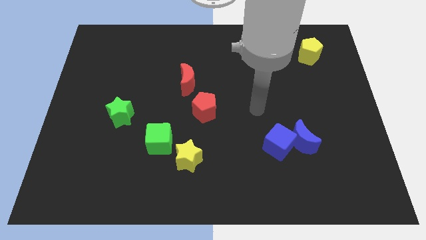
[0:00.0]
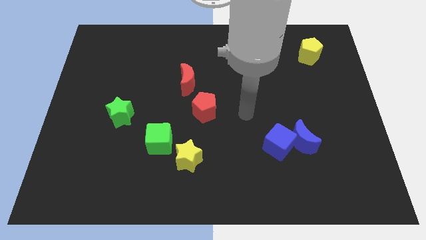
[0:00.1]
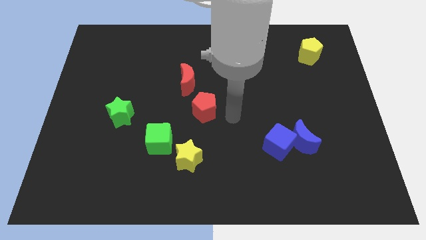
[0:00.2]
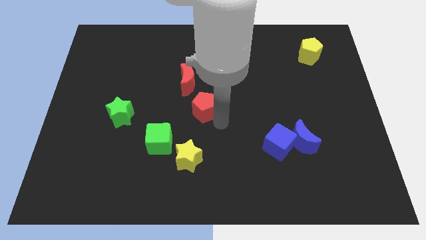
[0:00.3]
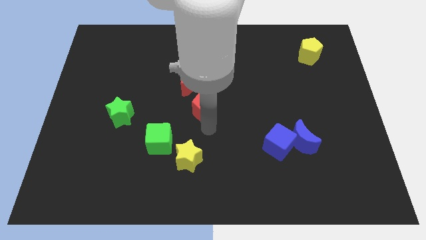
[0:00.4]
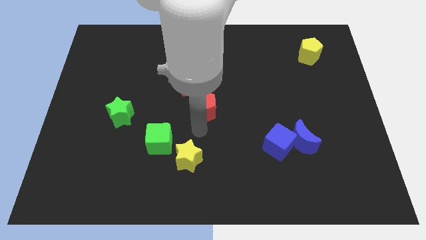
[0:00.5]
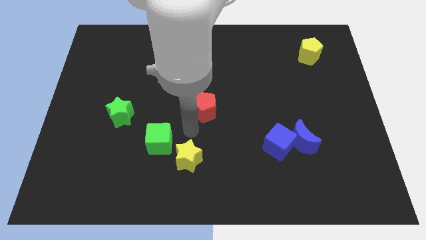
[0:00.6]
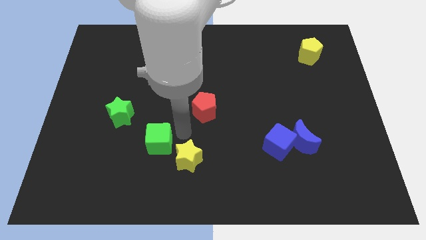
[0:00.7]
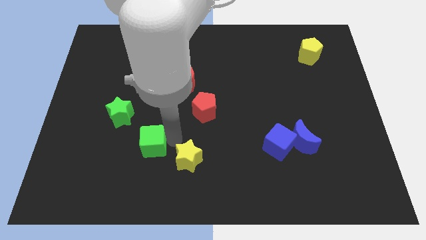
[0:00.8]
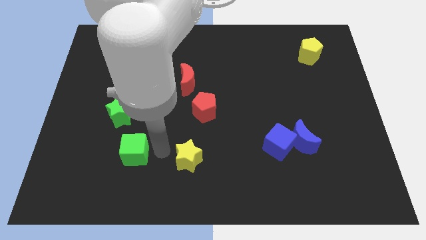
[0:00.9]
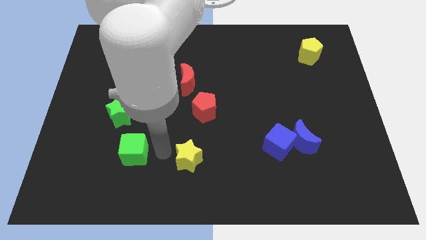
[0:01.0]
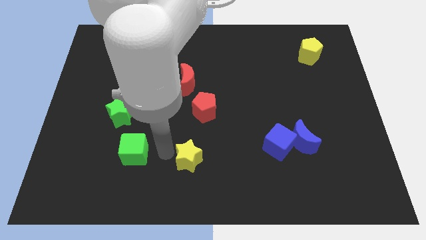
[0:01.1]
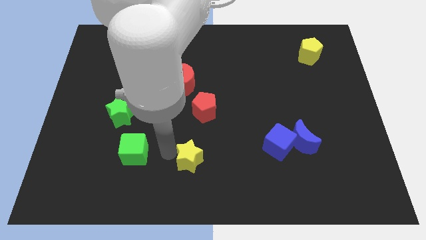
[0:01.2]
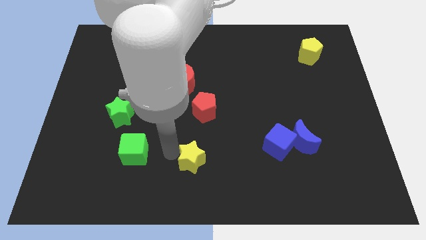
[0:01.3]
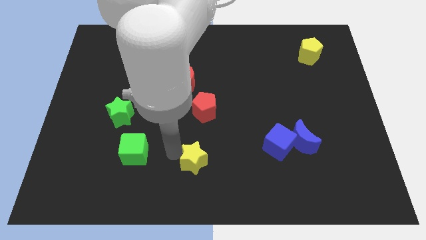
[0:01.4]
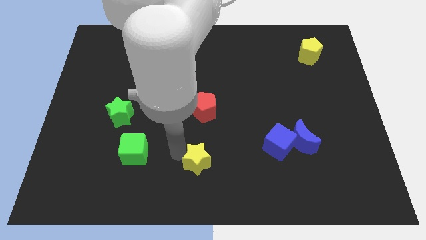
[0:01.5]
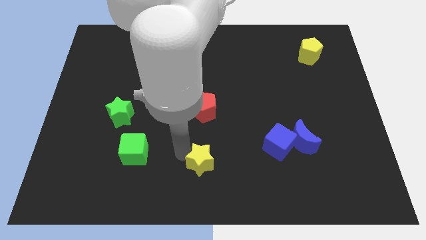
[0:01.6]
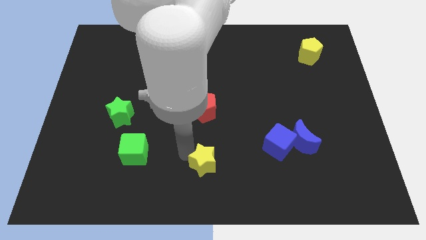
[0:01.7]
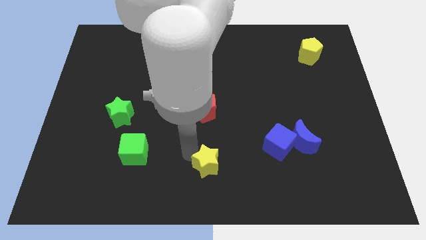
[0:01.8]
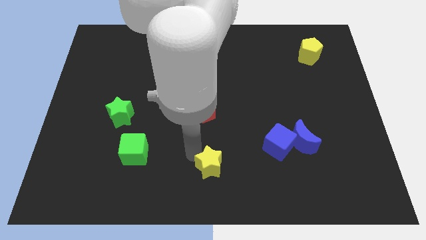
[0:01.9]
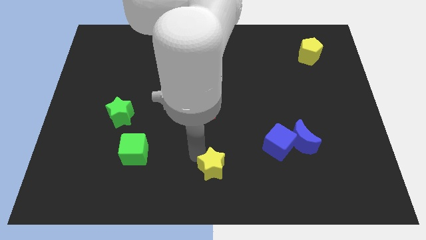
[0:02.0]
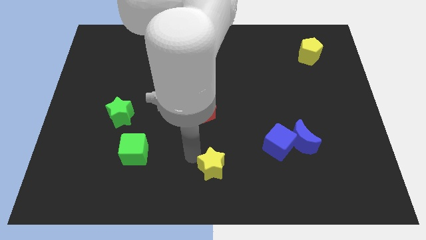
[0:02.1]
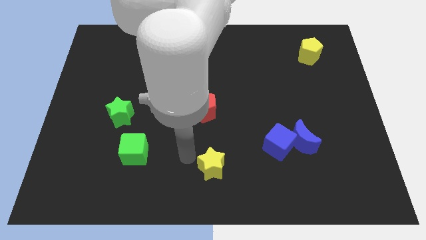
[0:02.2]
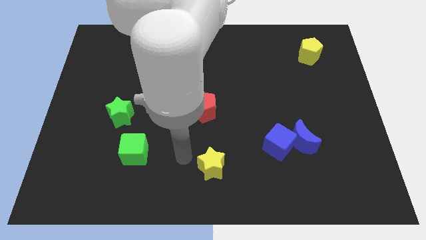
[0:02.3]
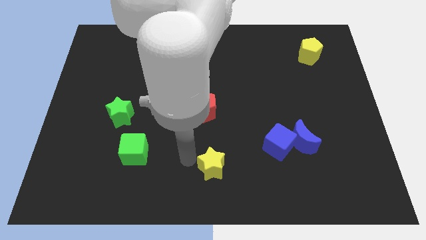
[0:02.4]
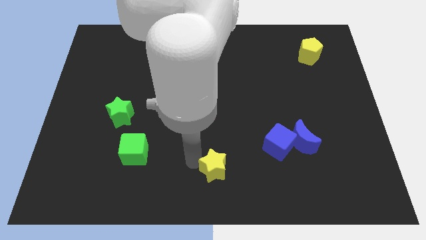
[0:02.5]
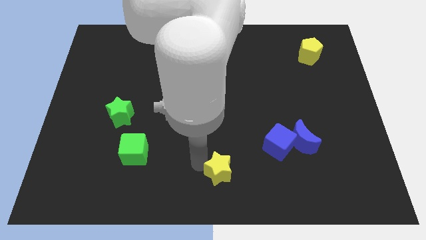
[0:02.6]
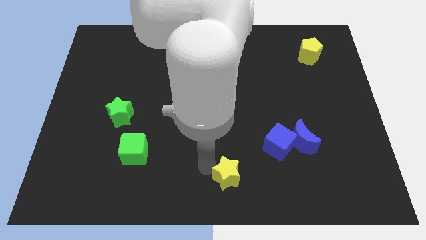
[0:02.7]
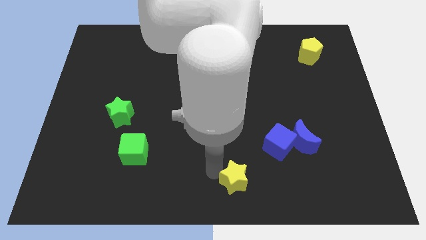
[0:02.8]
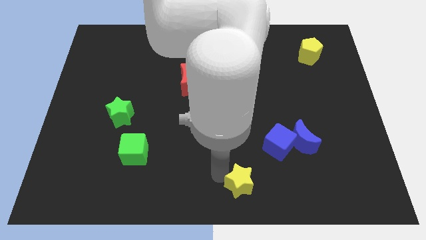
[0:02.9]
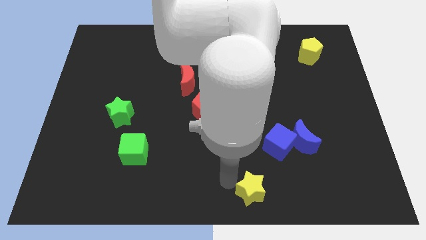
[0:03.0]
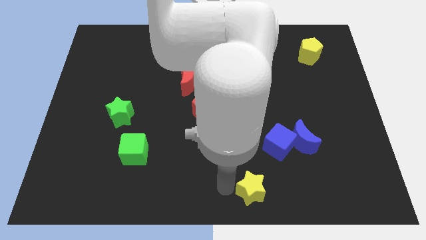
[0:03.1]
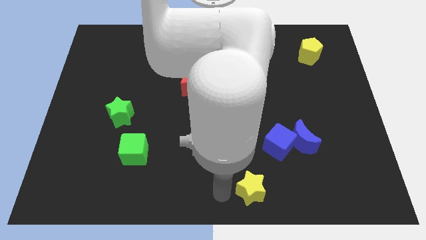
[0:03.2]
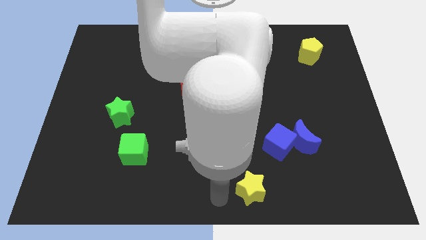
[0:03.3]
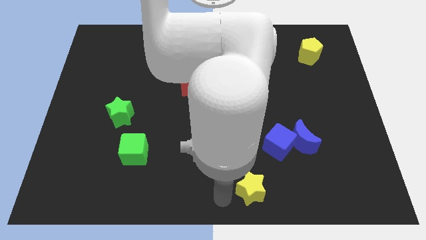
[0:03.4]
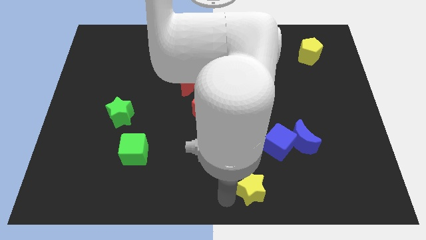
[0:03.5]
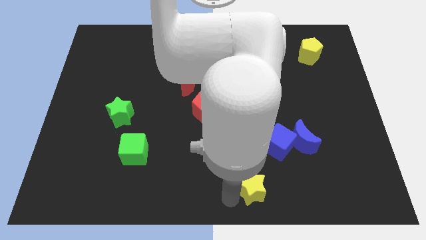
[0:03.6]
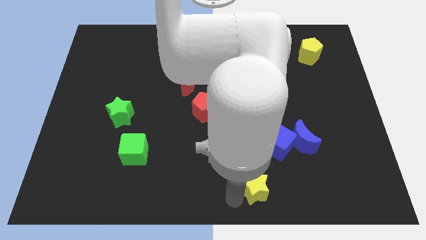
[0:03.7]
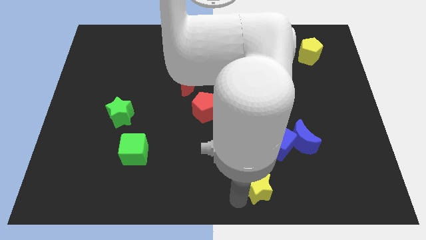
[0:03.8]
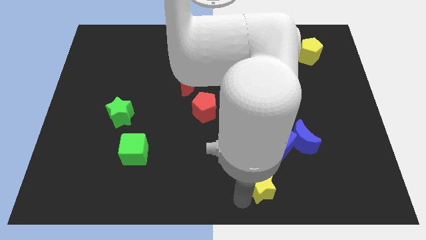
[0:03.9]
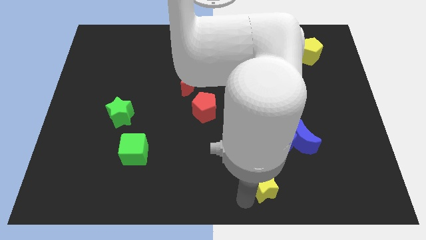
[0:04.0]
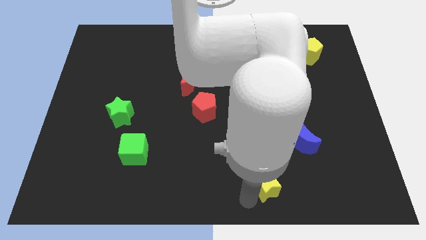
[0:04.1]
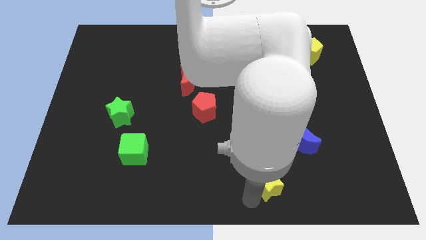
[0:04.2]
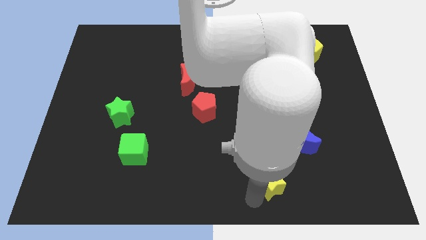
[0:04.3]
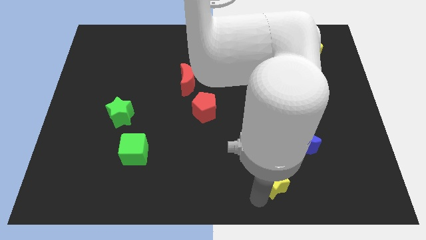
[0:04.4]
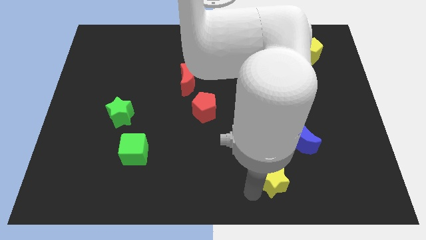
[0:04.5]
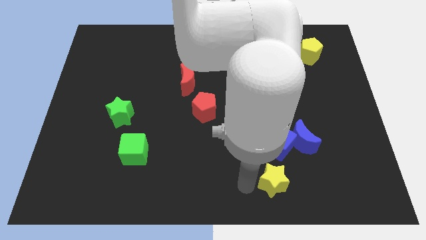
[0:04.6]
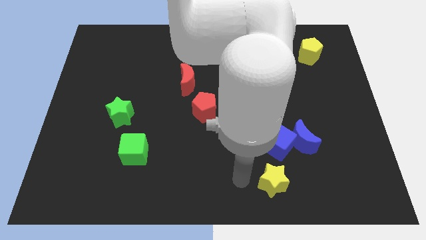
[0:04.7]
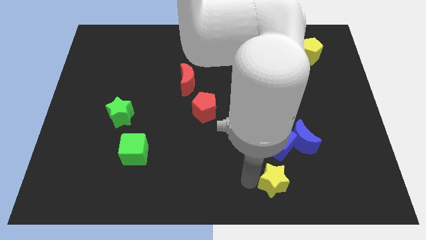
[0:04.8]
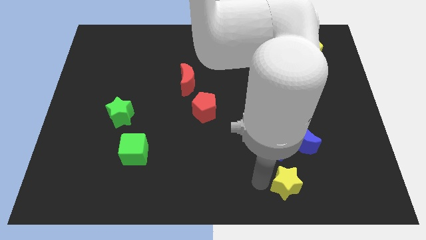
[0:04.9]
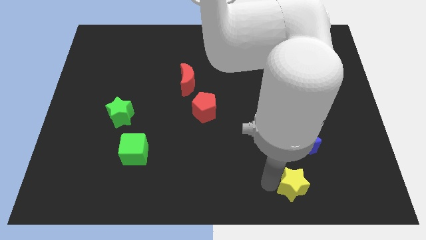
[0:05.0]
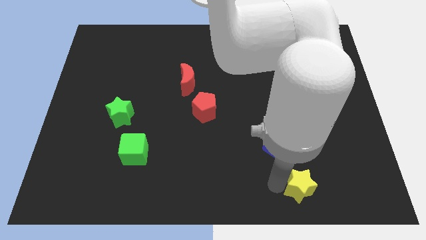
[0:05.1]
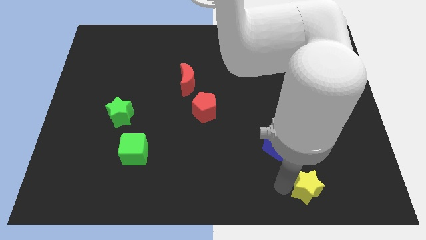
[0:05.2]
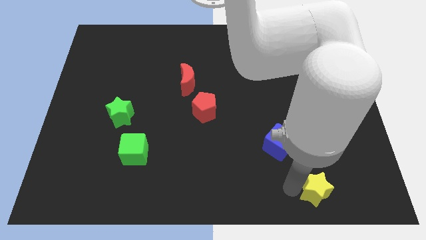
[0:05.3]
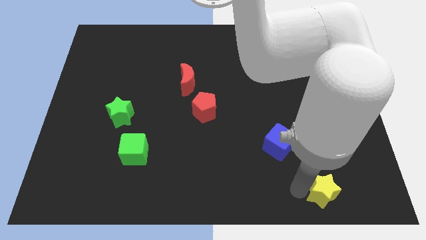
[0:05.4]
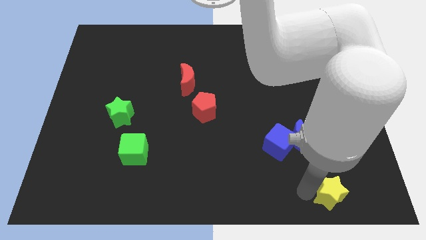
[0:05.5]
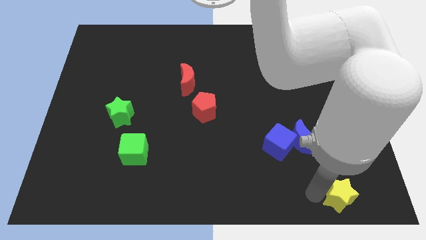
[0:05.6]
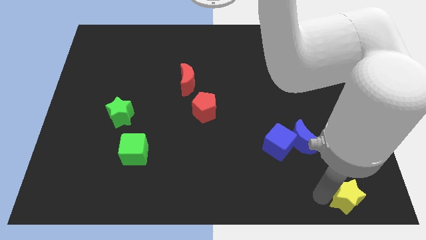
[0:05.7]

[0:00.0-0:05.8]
move the yellow star to the bottom right
